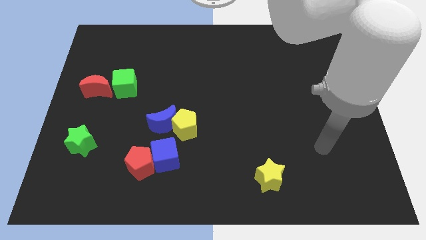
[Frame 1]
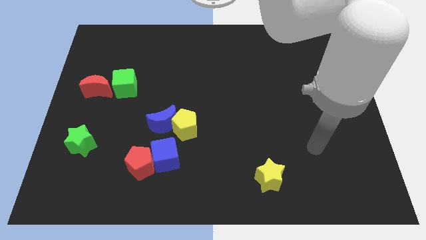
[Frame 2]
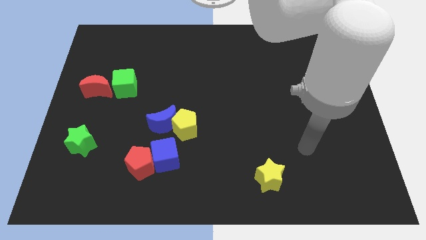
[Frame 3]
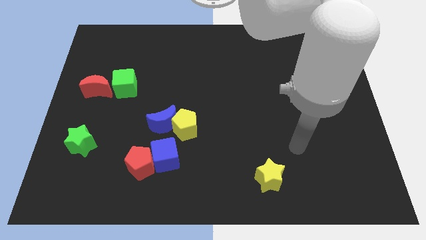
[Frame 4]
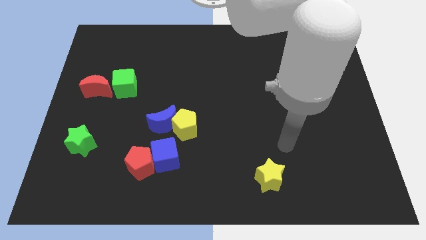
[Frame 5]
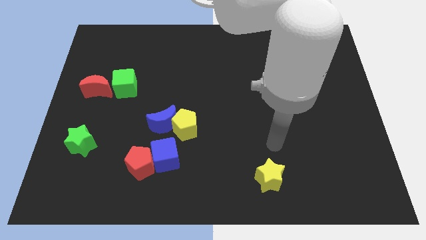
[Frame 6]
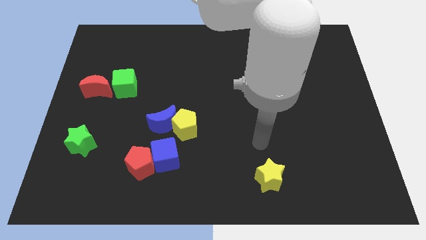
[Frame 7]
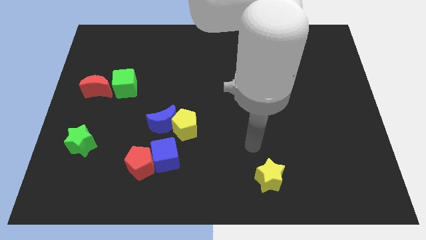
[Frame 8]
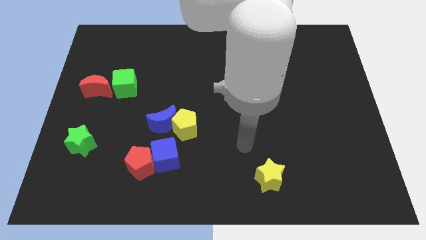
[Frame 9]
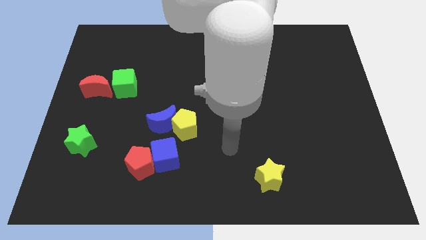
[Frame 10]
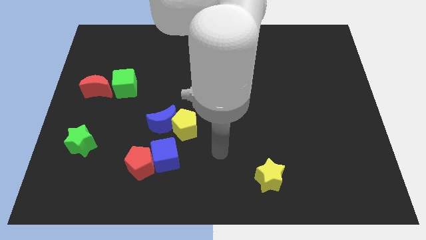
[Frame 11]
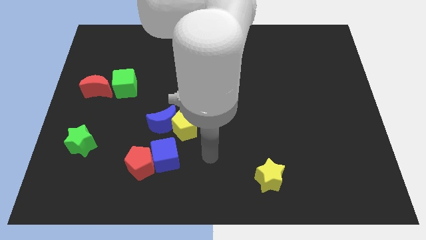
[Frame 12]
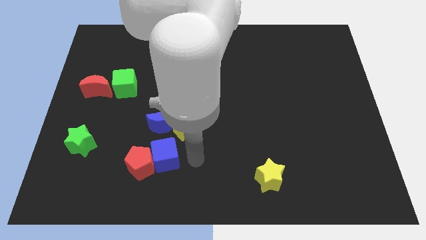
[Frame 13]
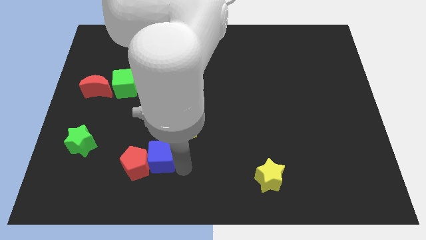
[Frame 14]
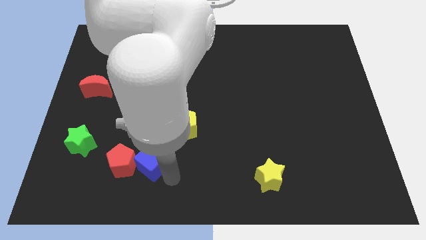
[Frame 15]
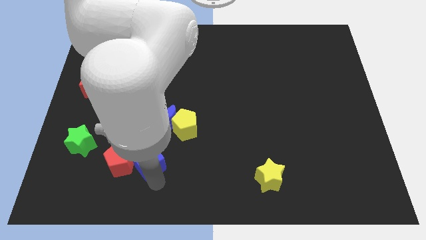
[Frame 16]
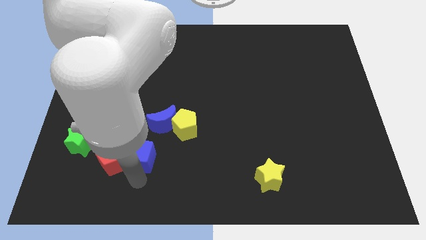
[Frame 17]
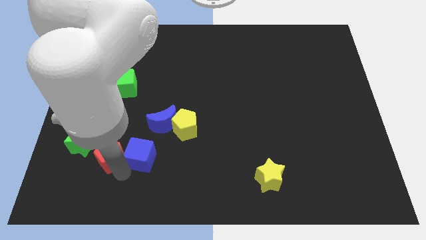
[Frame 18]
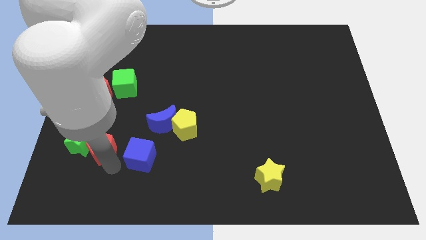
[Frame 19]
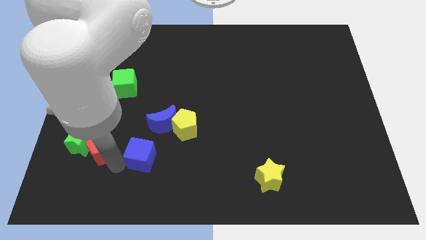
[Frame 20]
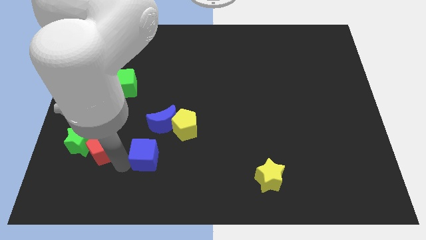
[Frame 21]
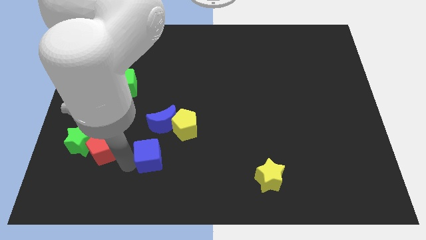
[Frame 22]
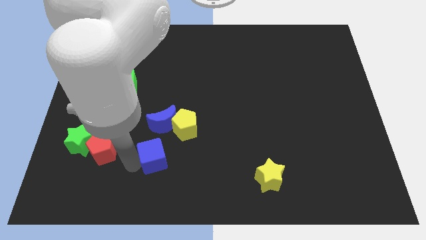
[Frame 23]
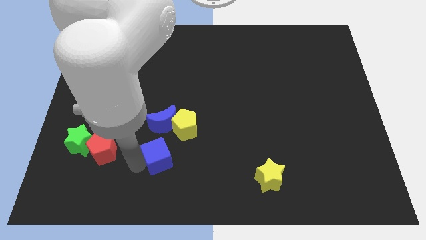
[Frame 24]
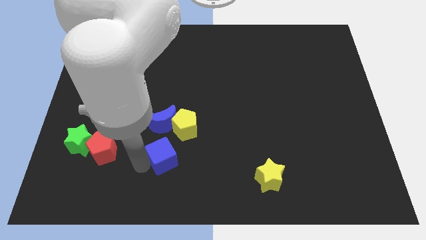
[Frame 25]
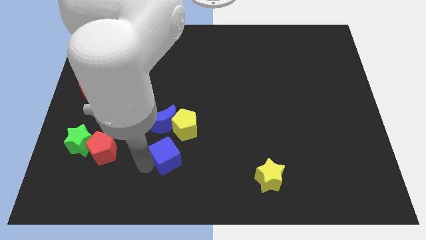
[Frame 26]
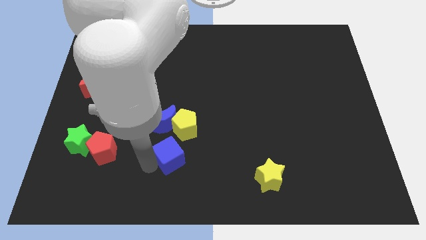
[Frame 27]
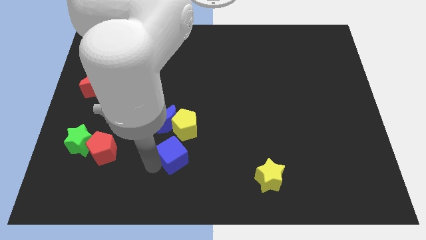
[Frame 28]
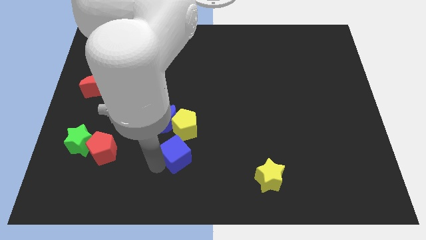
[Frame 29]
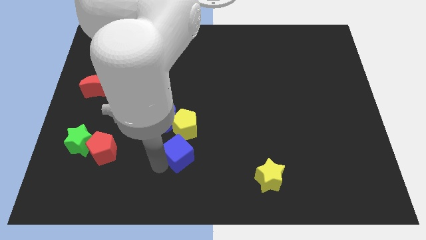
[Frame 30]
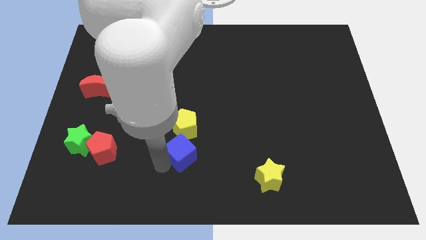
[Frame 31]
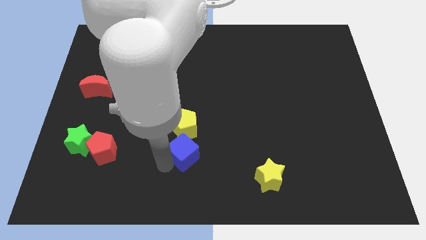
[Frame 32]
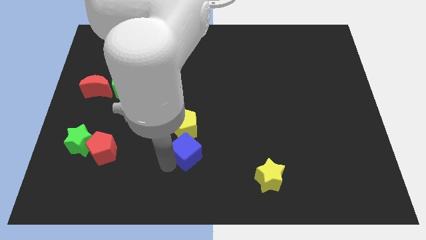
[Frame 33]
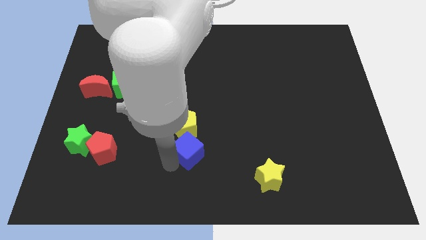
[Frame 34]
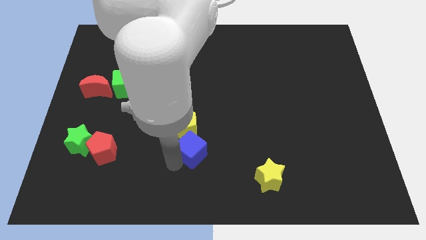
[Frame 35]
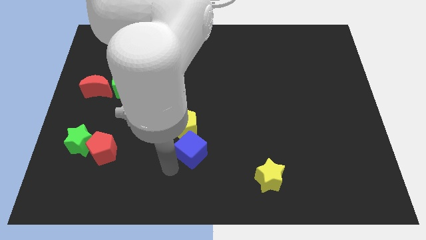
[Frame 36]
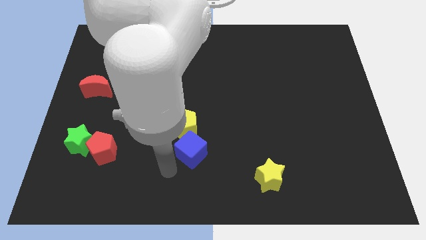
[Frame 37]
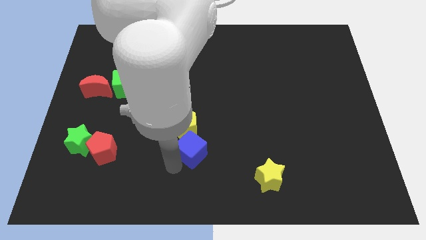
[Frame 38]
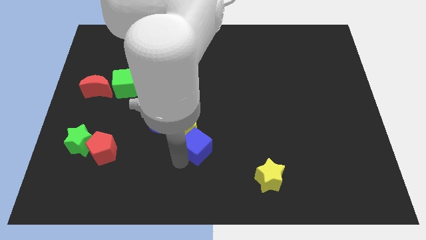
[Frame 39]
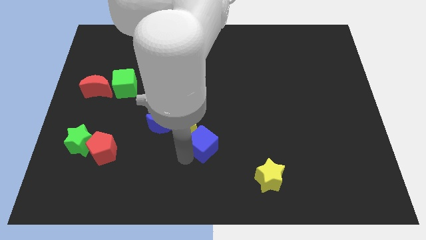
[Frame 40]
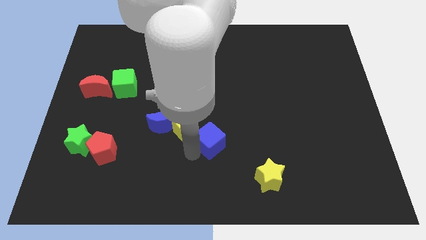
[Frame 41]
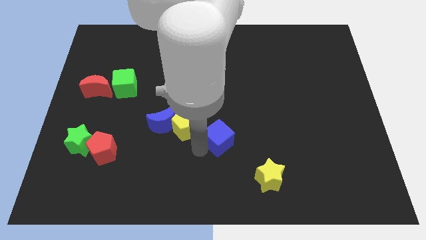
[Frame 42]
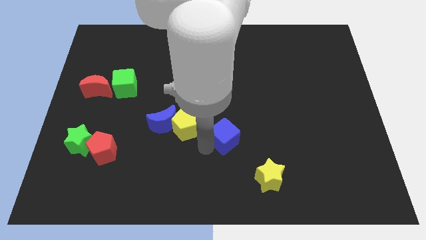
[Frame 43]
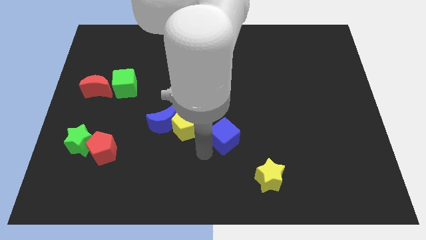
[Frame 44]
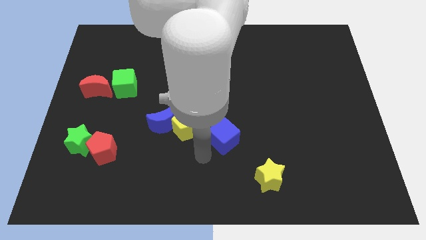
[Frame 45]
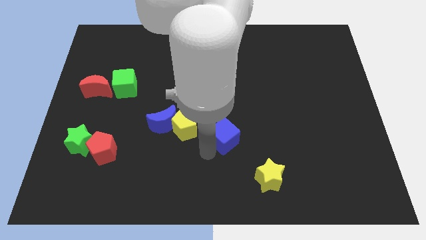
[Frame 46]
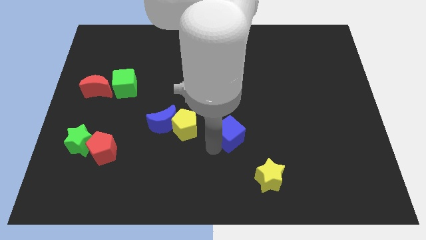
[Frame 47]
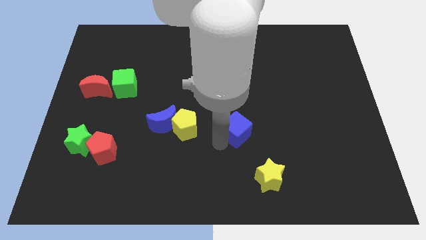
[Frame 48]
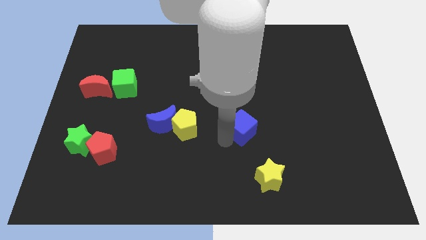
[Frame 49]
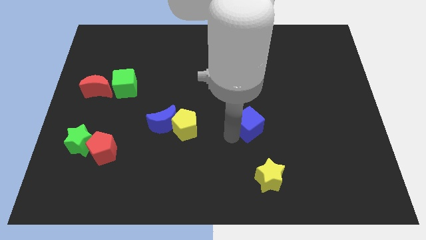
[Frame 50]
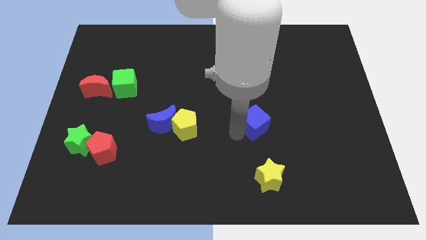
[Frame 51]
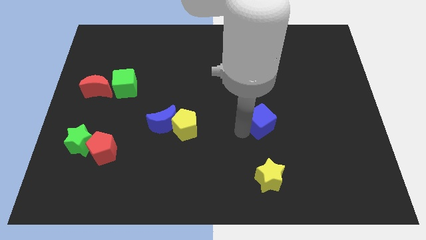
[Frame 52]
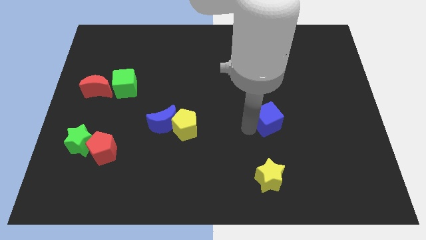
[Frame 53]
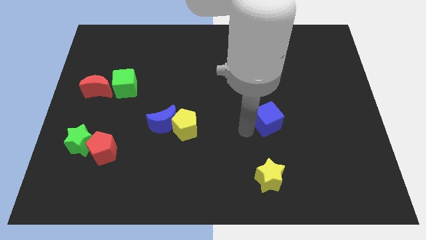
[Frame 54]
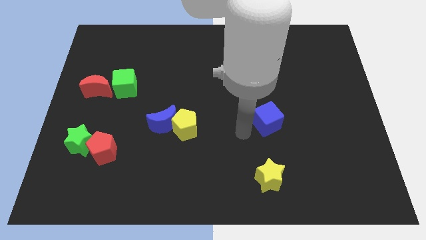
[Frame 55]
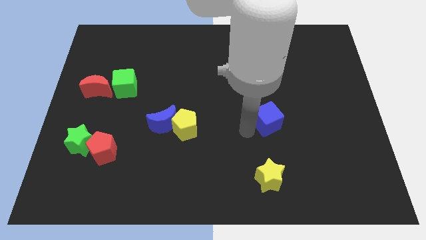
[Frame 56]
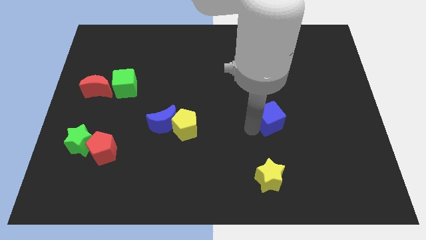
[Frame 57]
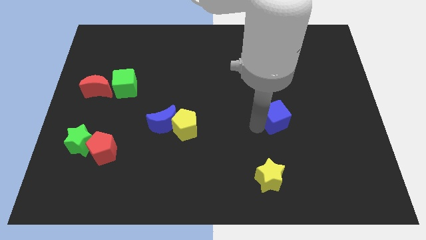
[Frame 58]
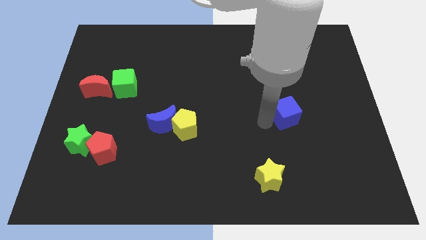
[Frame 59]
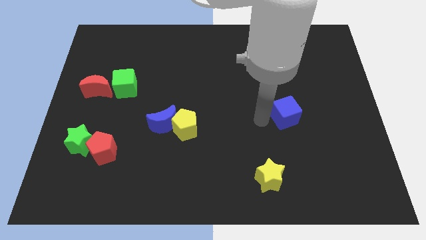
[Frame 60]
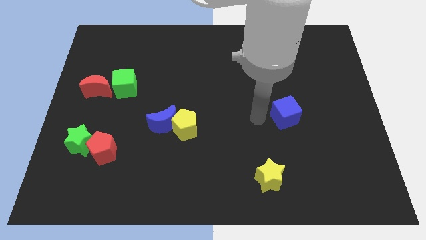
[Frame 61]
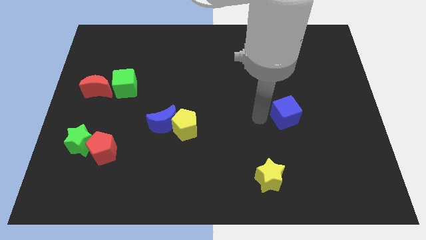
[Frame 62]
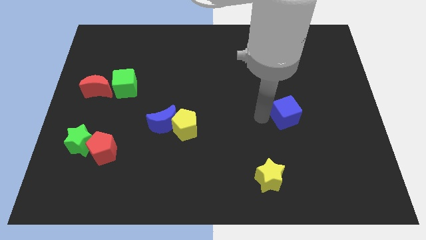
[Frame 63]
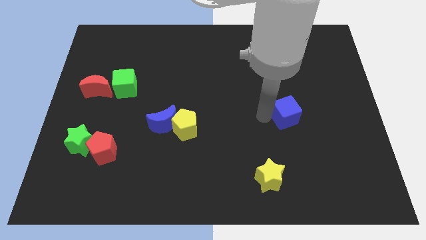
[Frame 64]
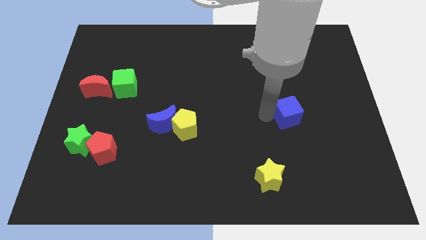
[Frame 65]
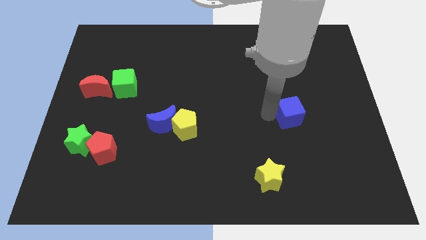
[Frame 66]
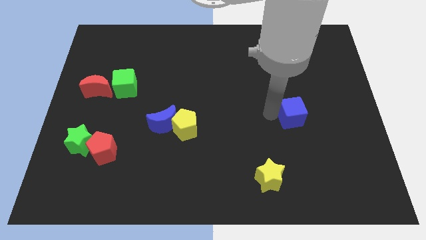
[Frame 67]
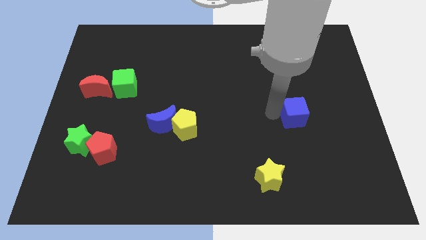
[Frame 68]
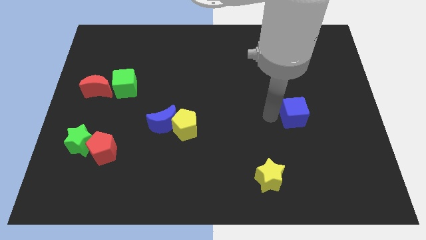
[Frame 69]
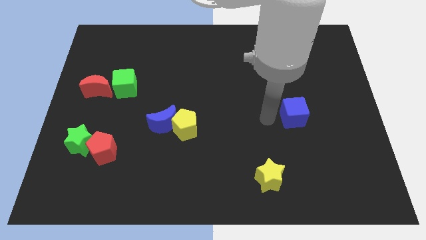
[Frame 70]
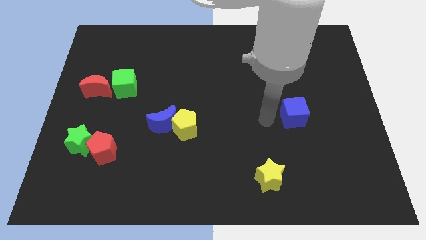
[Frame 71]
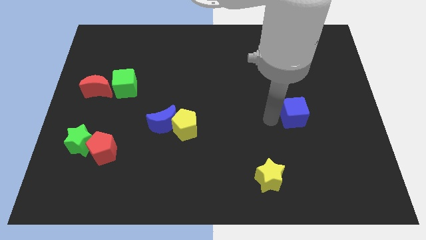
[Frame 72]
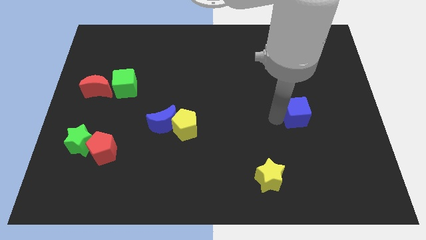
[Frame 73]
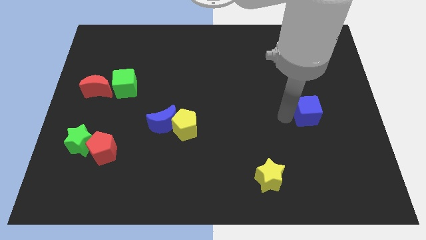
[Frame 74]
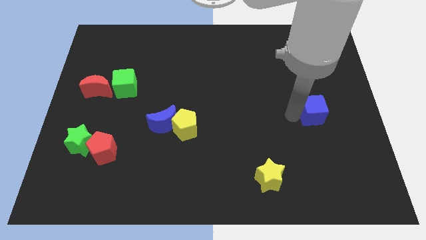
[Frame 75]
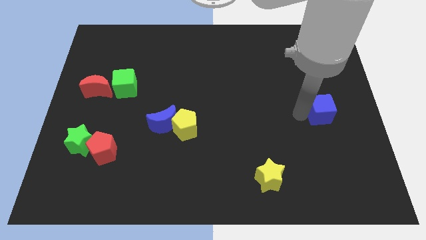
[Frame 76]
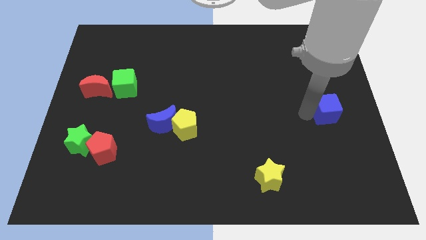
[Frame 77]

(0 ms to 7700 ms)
push the blue cube to the right side of the board

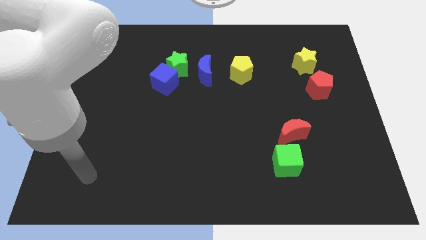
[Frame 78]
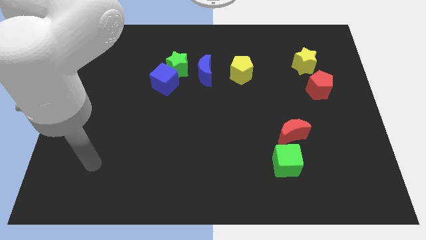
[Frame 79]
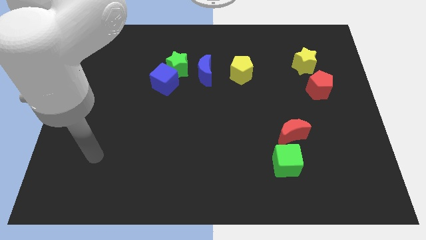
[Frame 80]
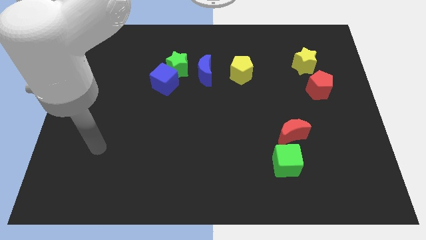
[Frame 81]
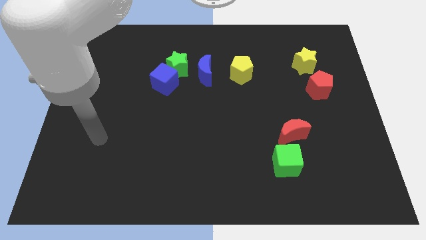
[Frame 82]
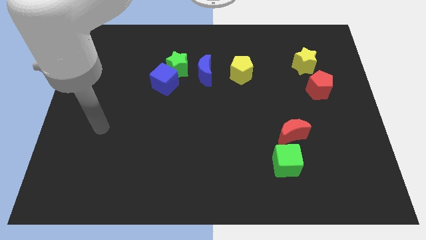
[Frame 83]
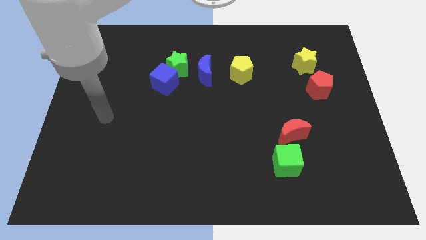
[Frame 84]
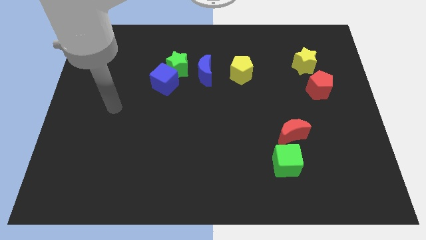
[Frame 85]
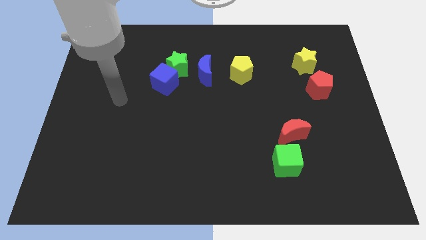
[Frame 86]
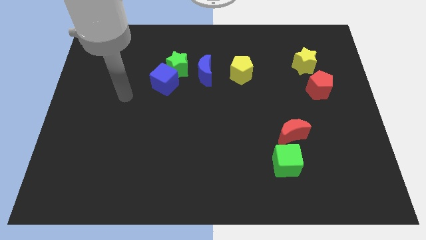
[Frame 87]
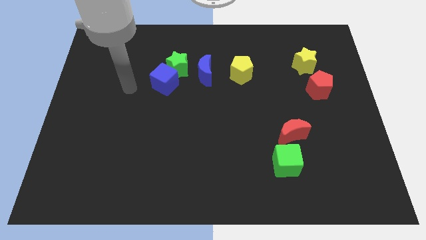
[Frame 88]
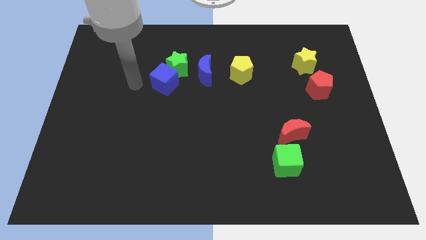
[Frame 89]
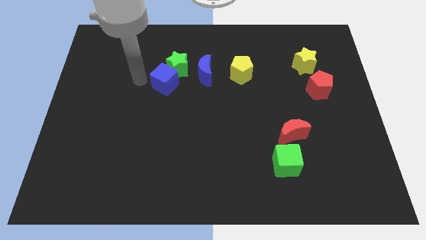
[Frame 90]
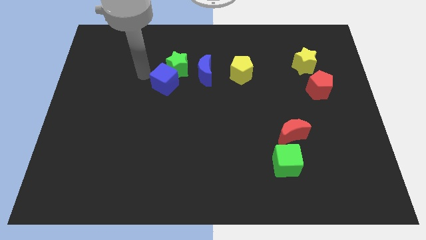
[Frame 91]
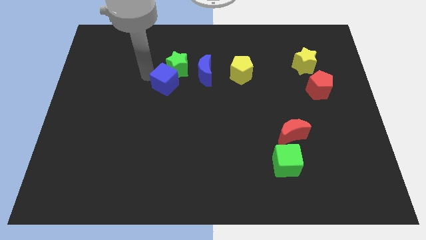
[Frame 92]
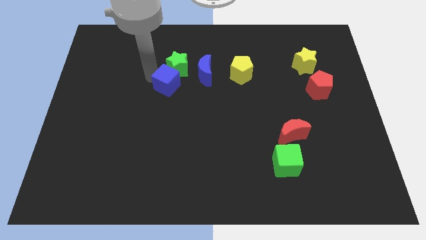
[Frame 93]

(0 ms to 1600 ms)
slide the blue cube to the middle
